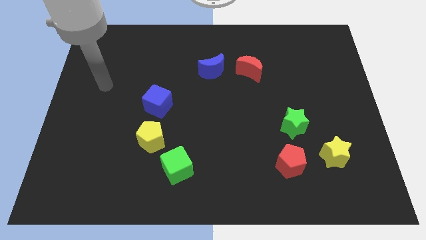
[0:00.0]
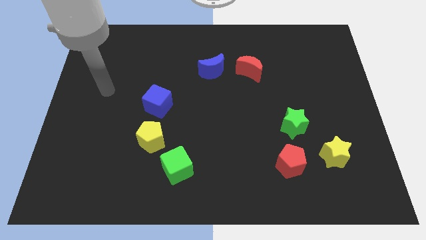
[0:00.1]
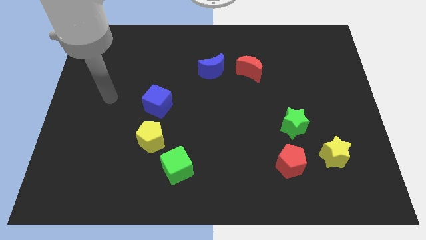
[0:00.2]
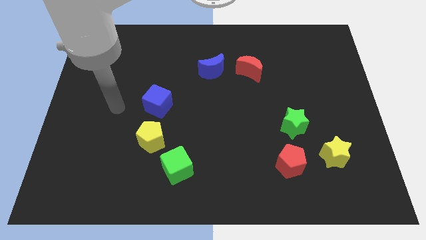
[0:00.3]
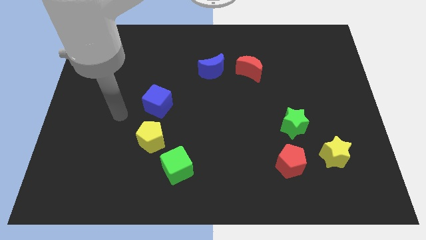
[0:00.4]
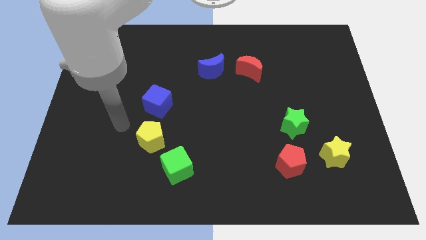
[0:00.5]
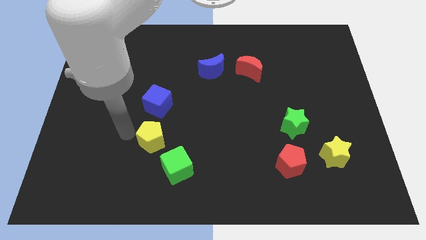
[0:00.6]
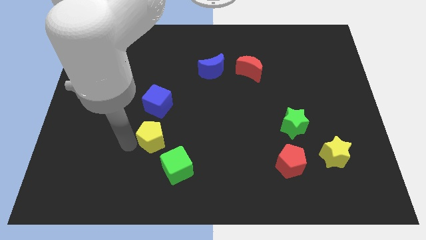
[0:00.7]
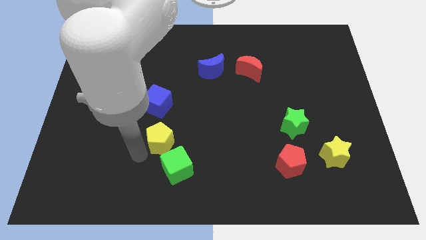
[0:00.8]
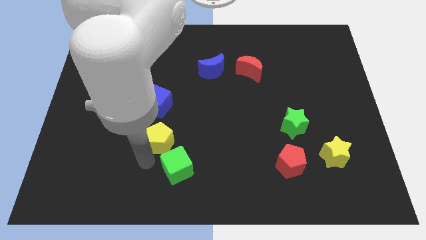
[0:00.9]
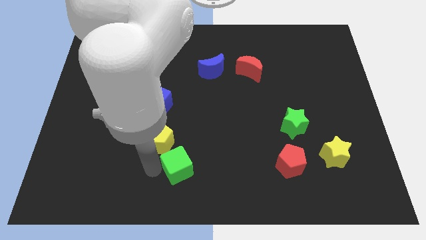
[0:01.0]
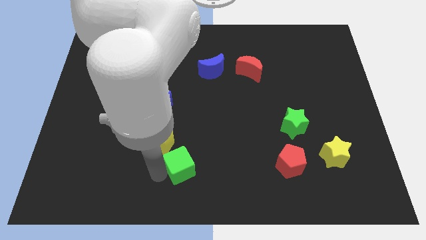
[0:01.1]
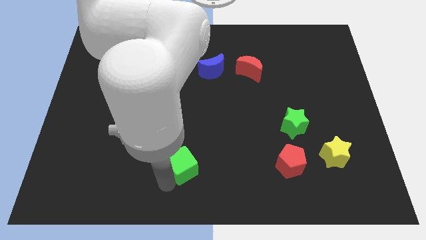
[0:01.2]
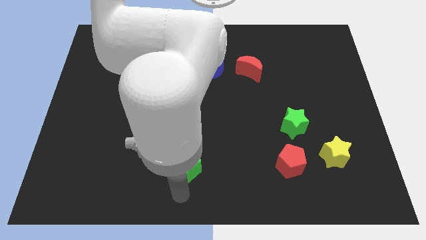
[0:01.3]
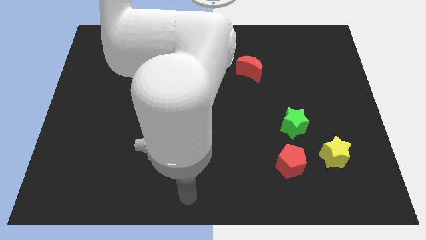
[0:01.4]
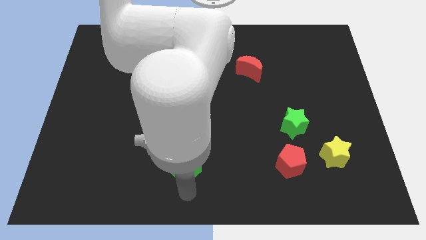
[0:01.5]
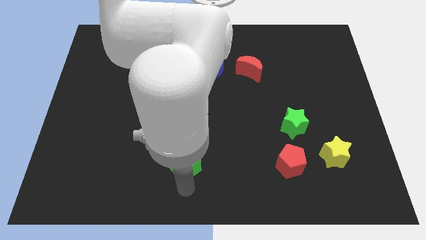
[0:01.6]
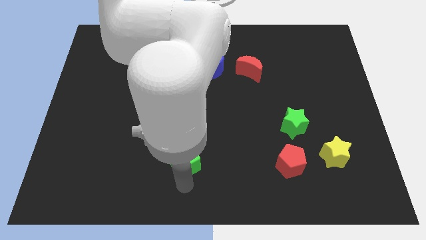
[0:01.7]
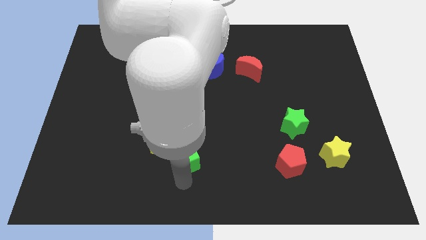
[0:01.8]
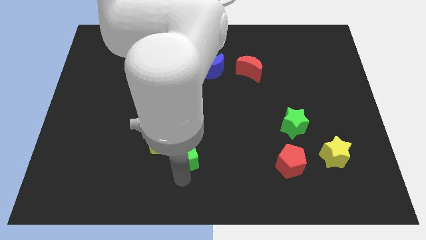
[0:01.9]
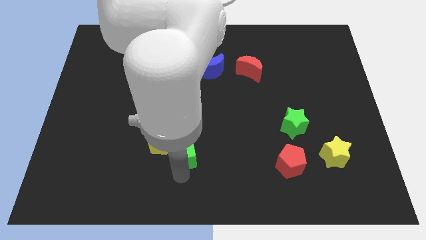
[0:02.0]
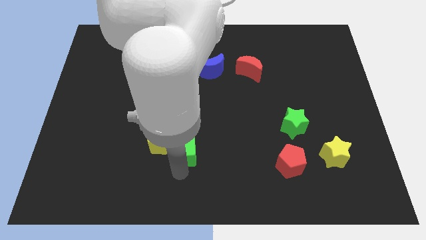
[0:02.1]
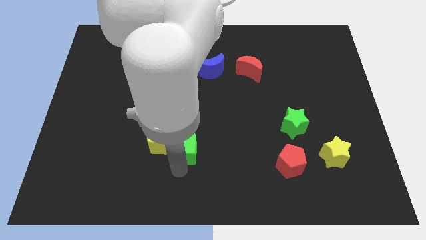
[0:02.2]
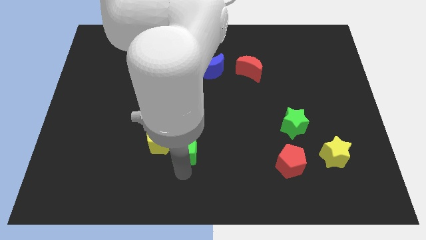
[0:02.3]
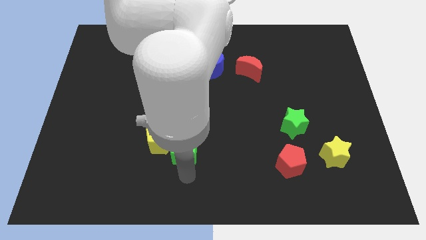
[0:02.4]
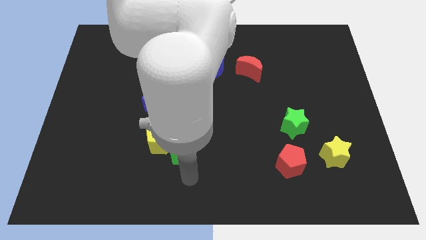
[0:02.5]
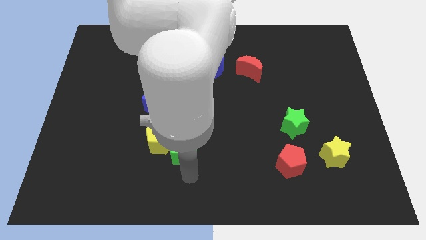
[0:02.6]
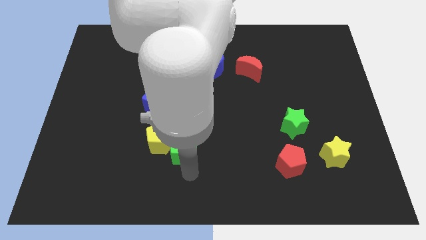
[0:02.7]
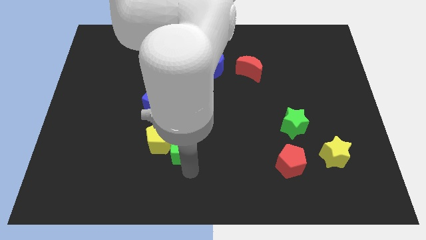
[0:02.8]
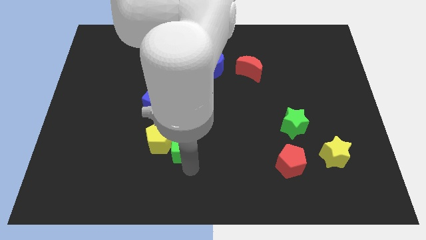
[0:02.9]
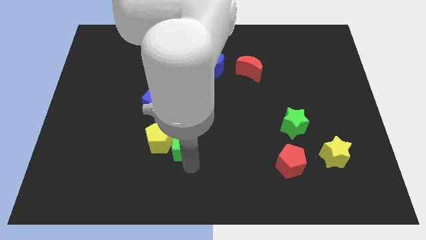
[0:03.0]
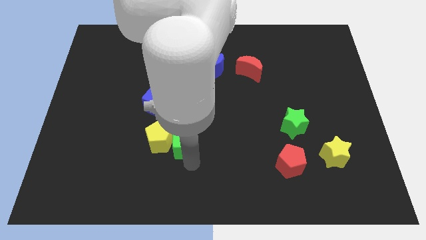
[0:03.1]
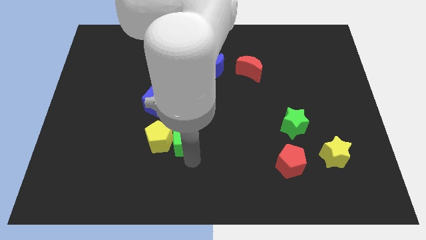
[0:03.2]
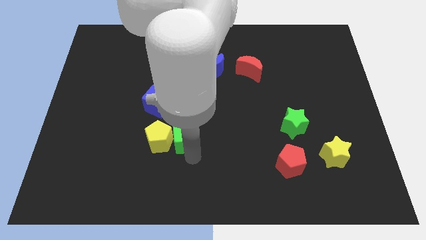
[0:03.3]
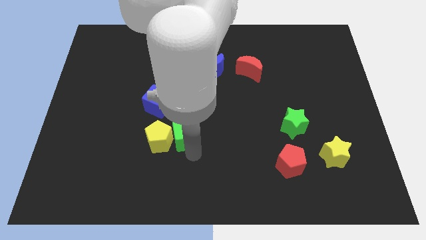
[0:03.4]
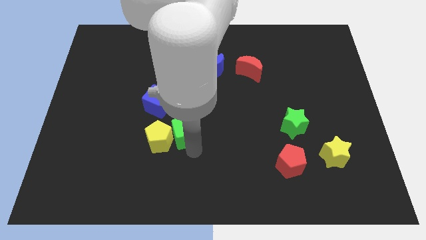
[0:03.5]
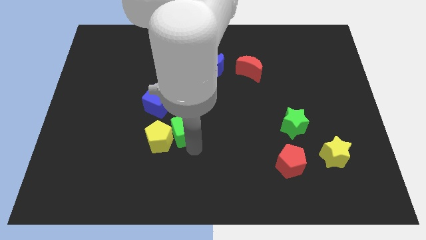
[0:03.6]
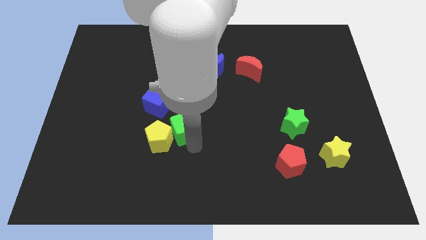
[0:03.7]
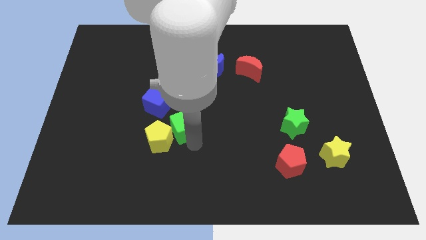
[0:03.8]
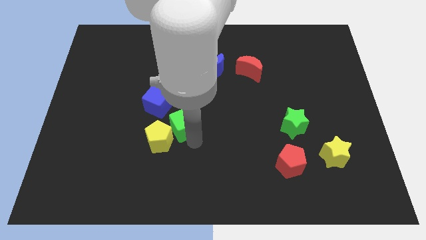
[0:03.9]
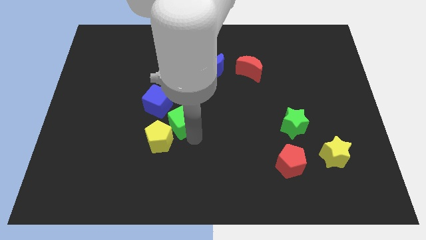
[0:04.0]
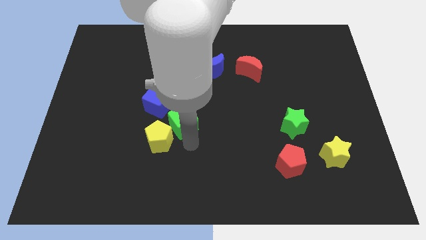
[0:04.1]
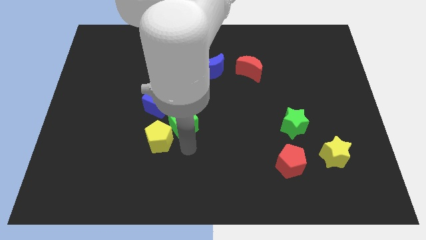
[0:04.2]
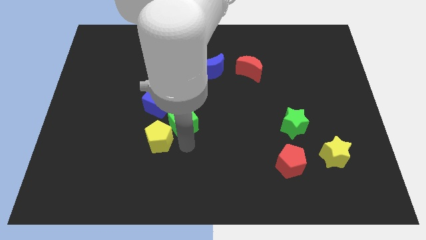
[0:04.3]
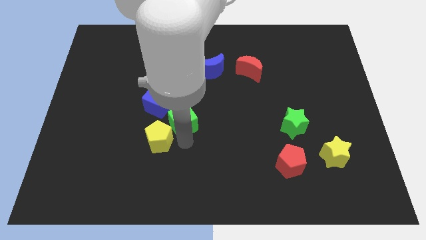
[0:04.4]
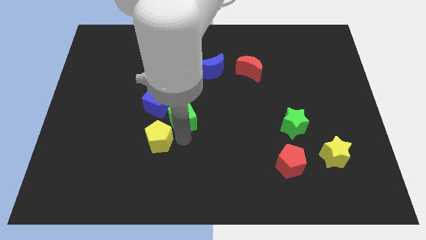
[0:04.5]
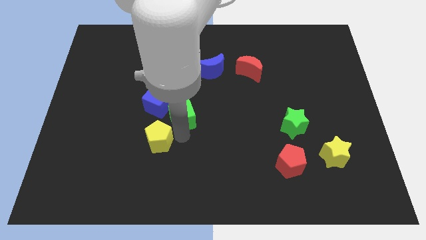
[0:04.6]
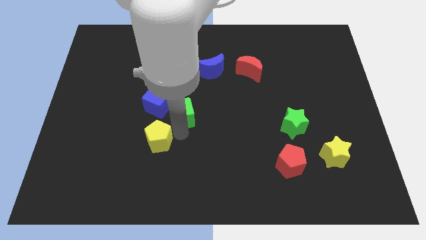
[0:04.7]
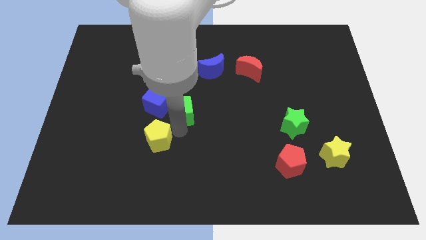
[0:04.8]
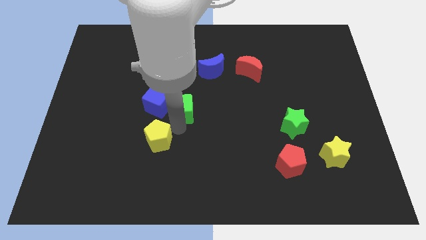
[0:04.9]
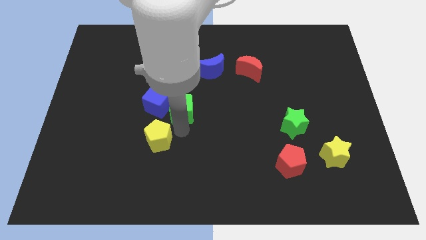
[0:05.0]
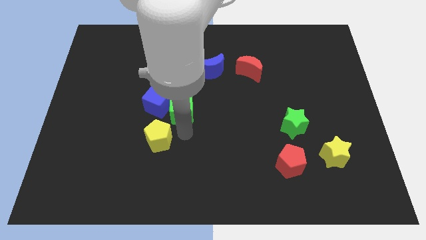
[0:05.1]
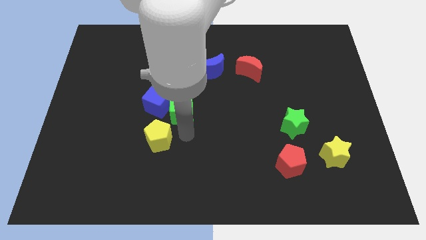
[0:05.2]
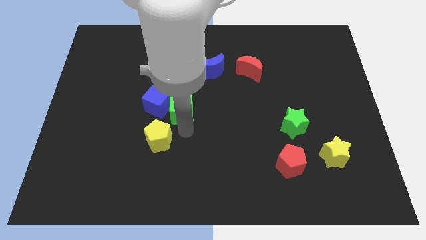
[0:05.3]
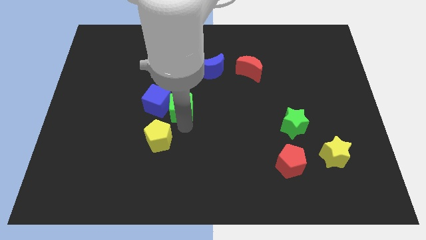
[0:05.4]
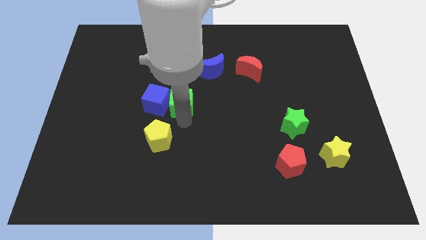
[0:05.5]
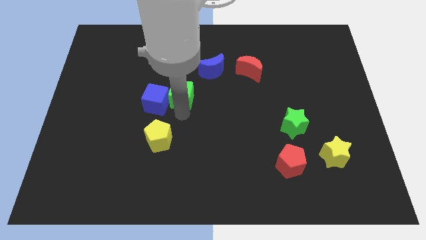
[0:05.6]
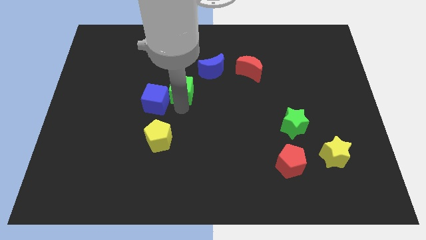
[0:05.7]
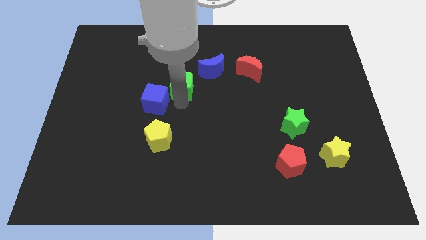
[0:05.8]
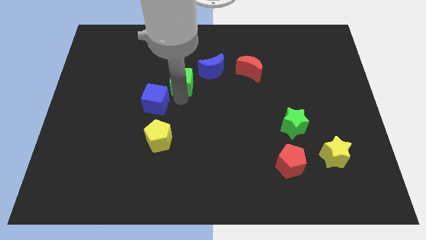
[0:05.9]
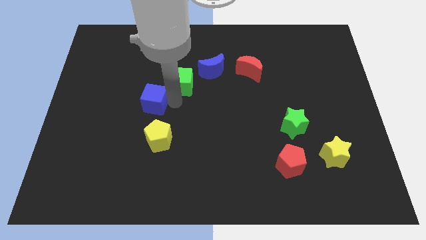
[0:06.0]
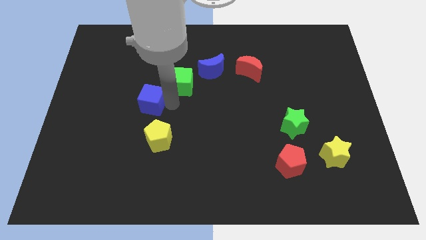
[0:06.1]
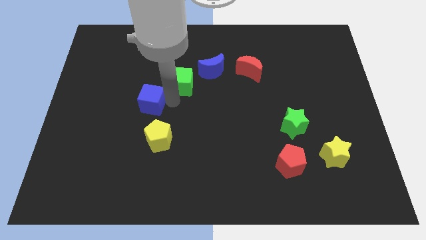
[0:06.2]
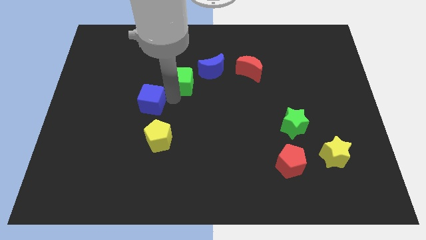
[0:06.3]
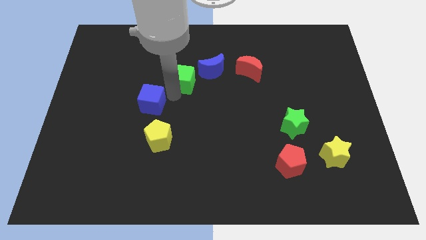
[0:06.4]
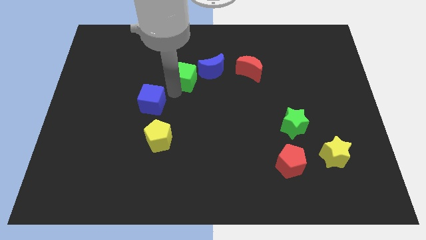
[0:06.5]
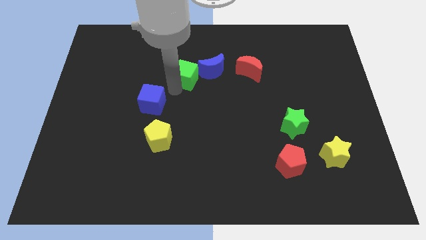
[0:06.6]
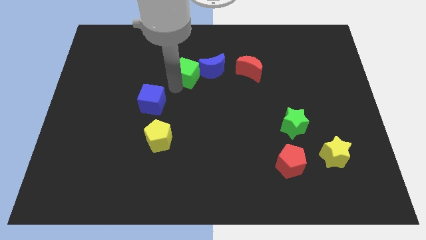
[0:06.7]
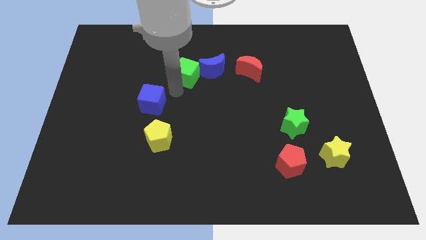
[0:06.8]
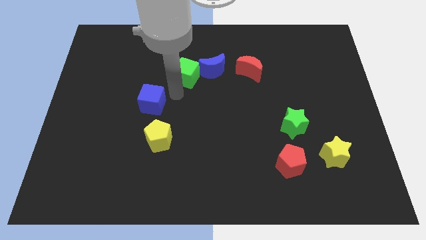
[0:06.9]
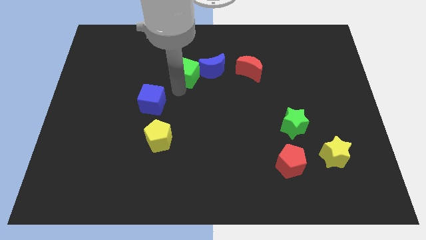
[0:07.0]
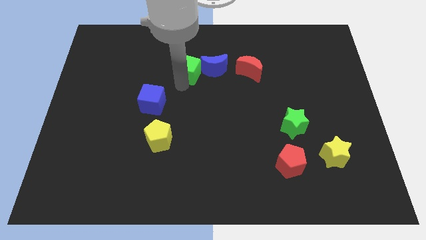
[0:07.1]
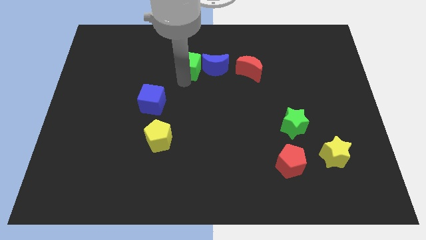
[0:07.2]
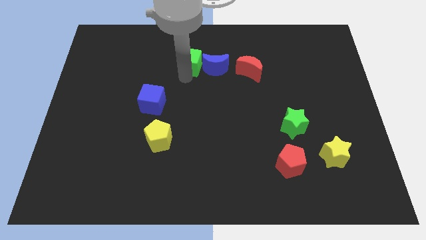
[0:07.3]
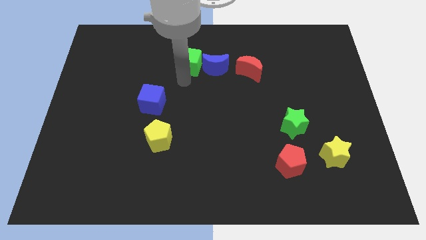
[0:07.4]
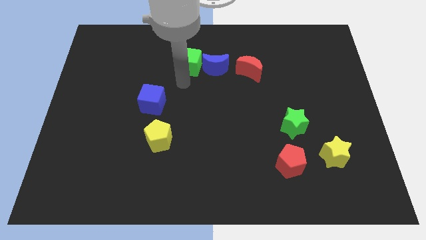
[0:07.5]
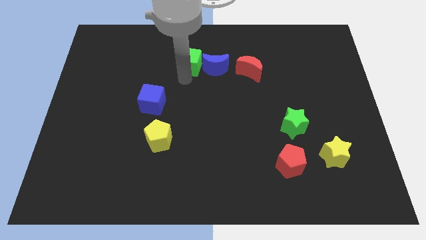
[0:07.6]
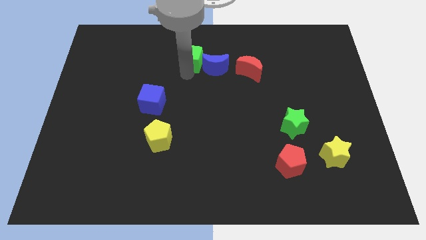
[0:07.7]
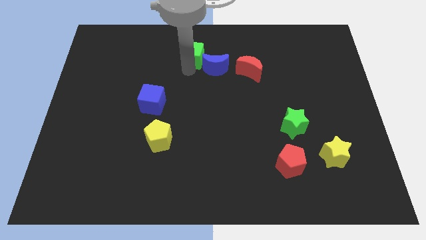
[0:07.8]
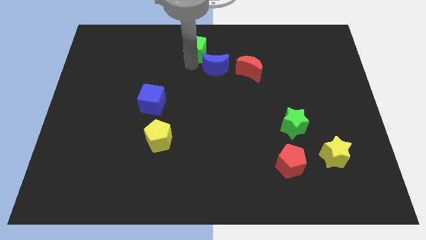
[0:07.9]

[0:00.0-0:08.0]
push the green cube to the towards your base
